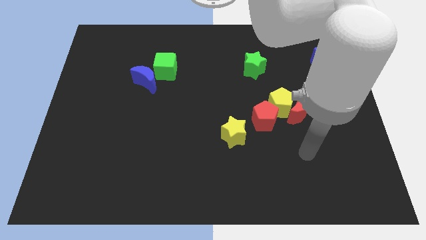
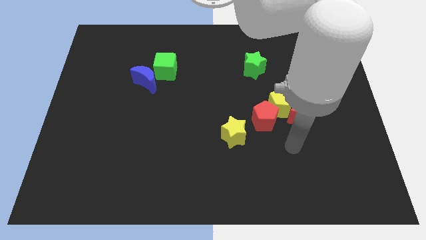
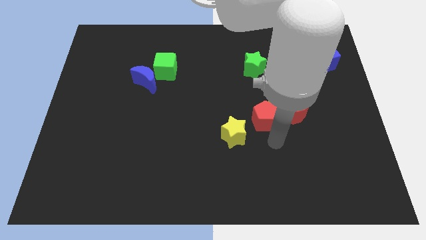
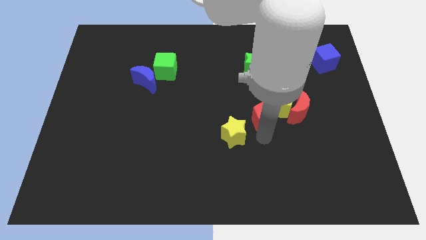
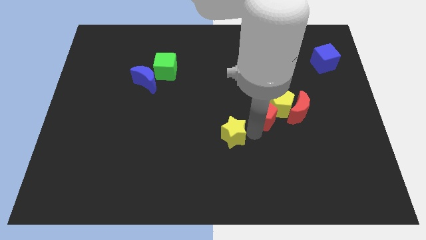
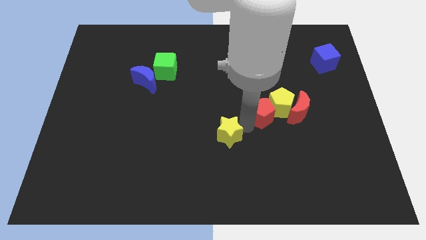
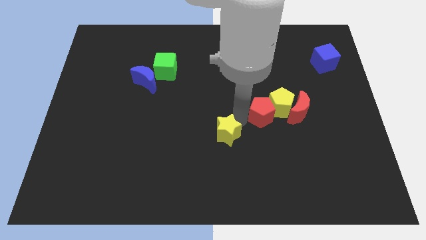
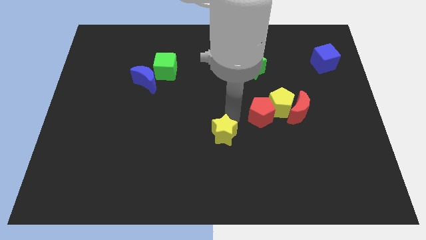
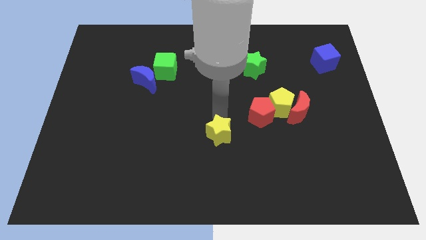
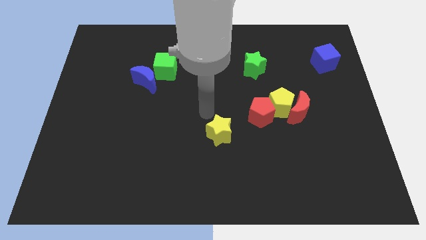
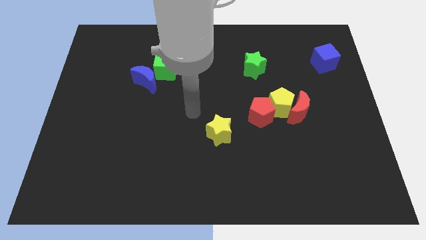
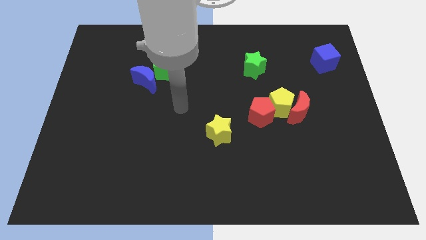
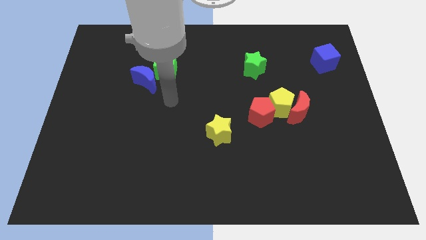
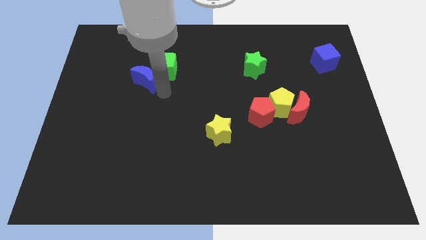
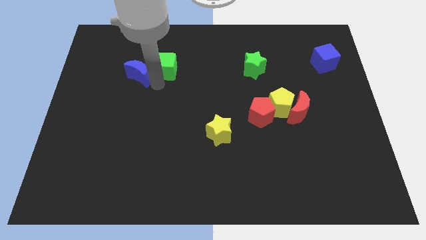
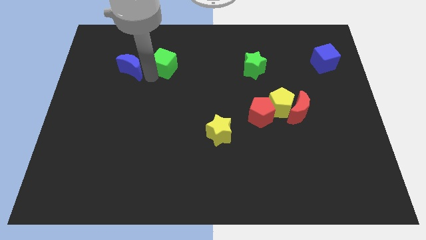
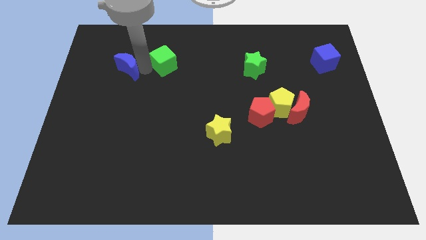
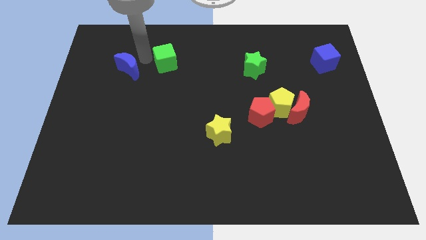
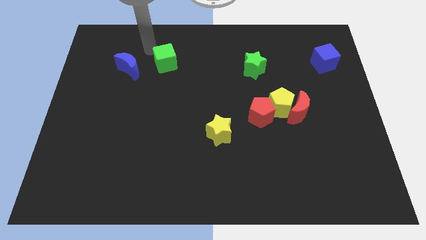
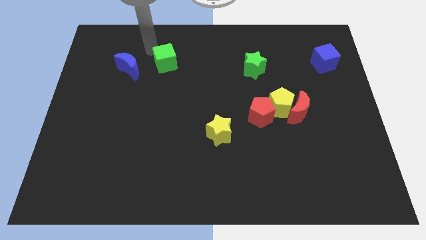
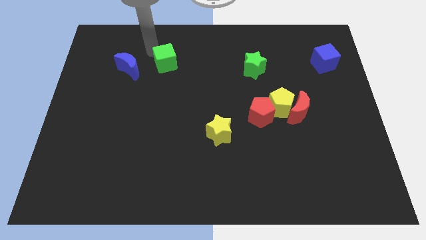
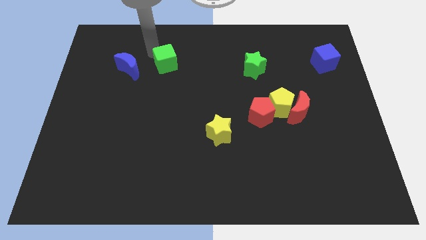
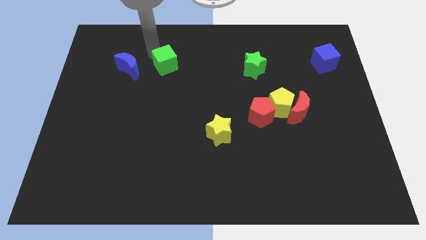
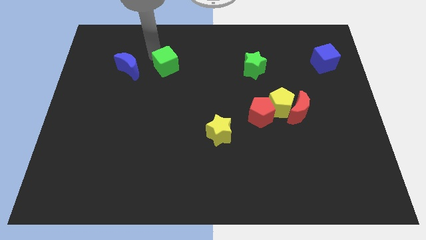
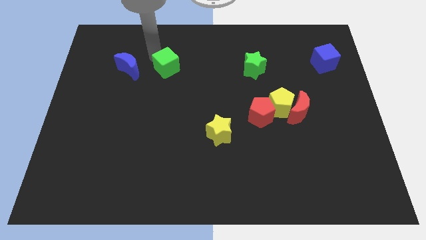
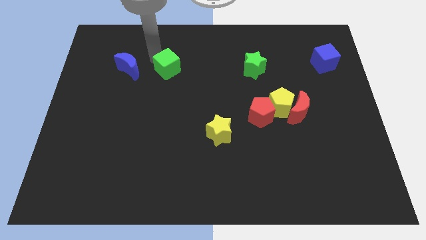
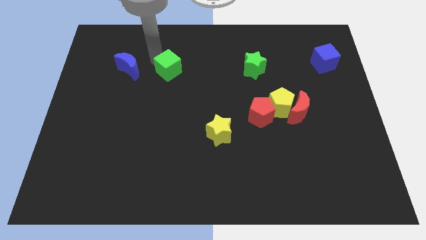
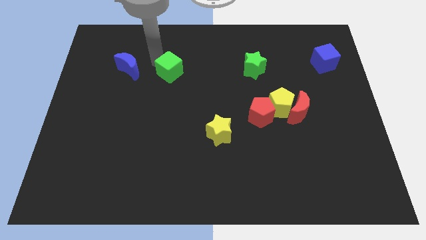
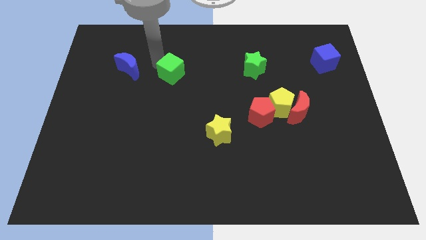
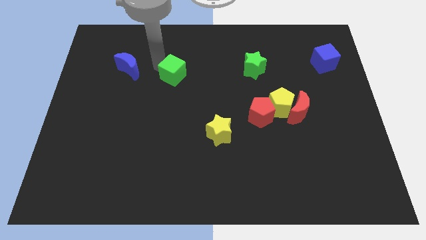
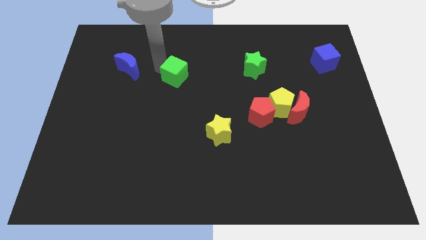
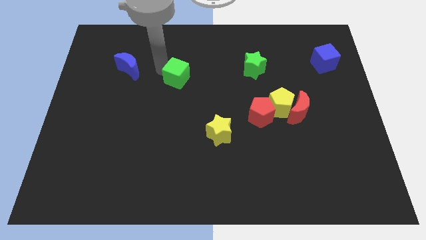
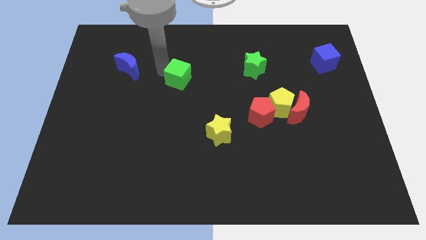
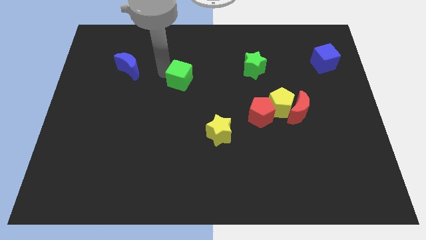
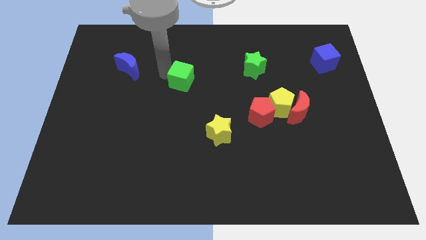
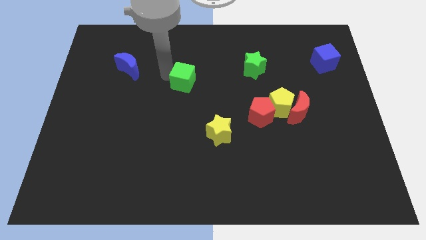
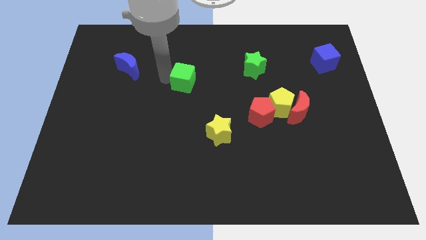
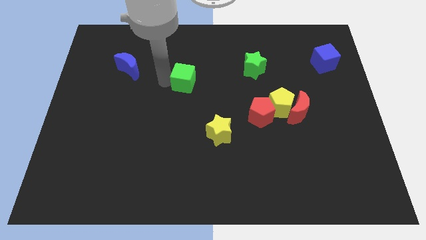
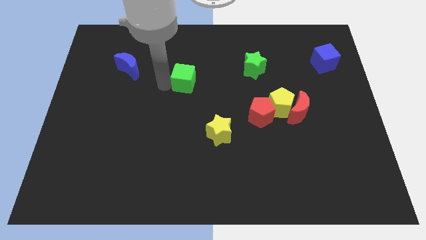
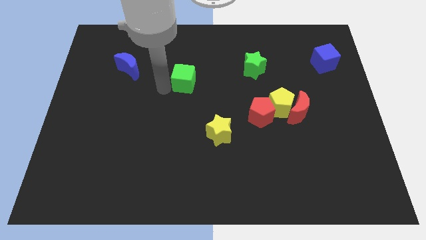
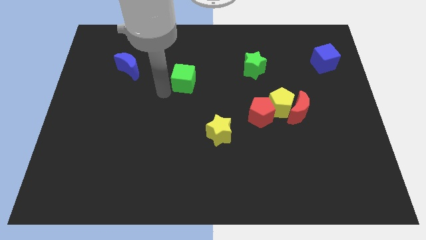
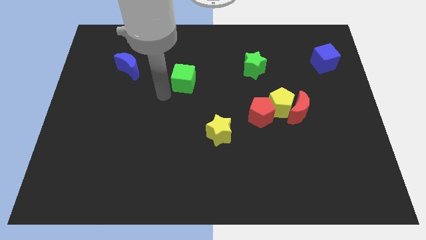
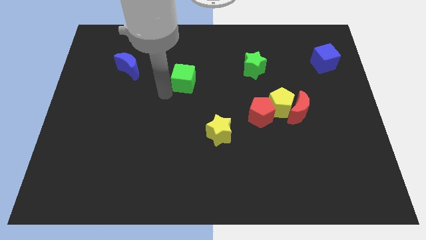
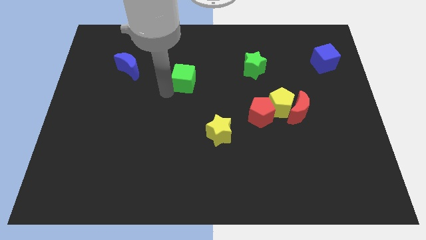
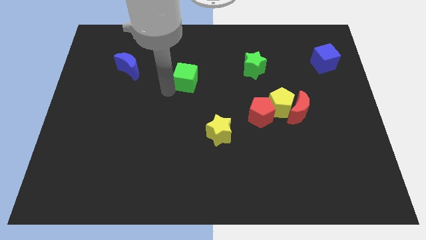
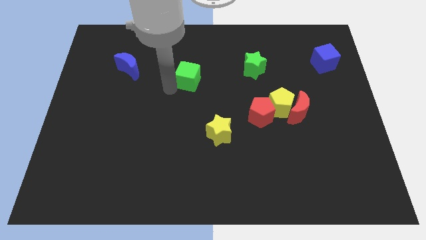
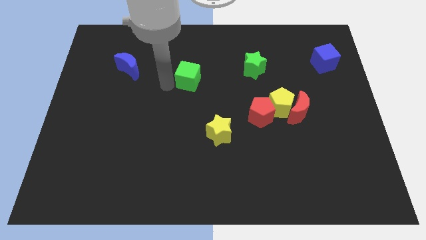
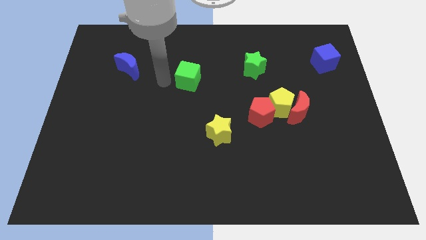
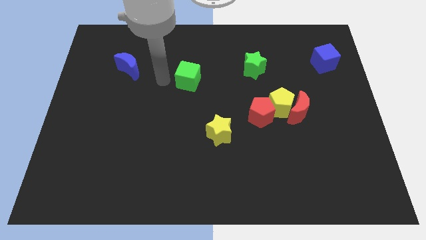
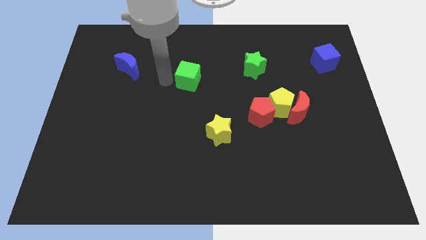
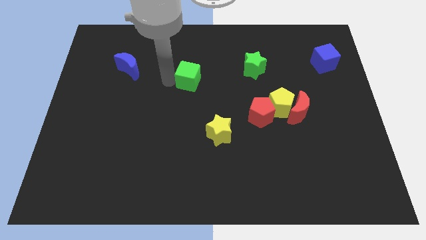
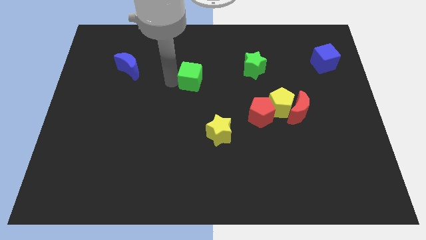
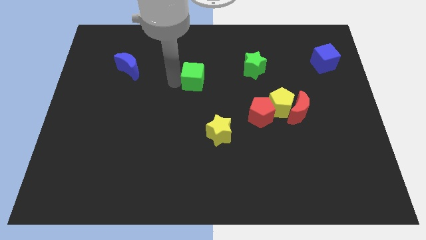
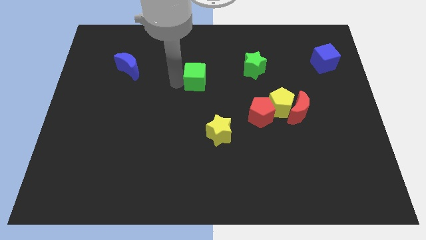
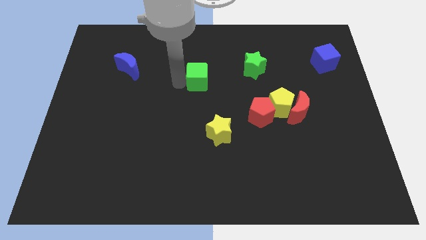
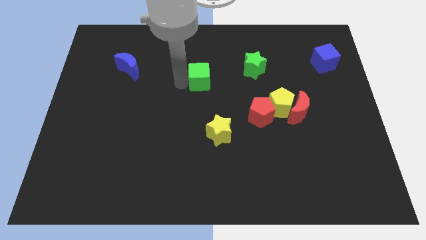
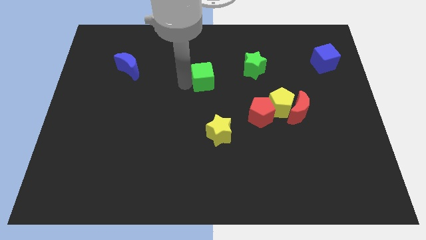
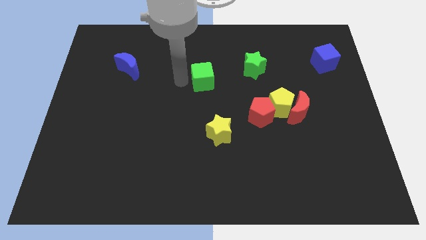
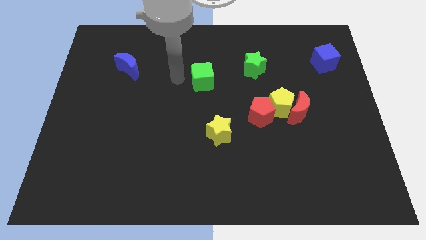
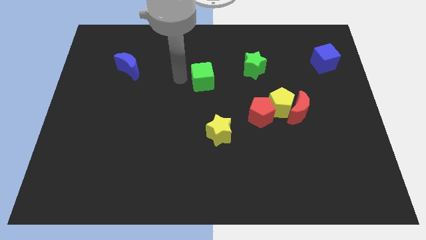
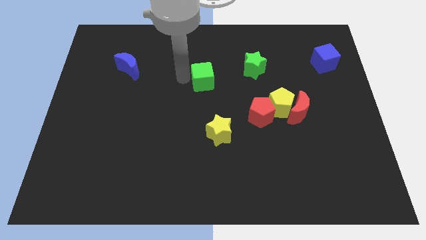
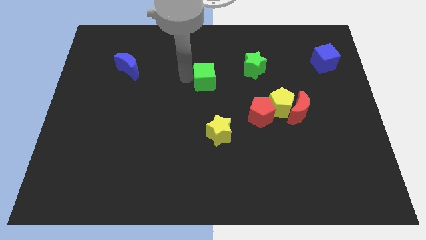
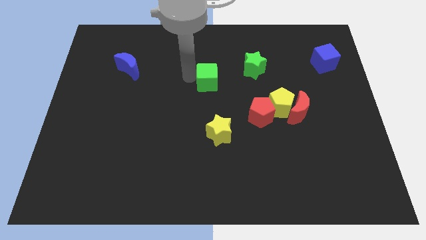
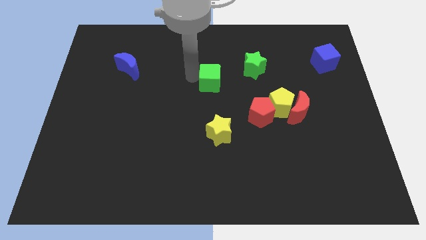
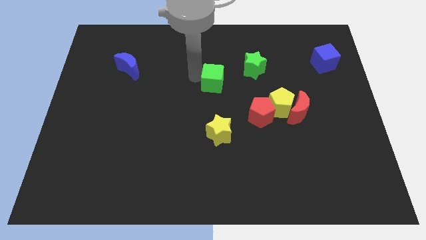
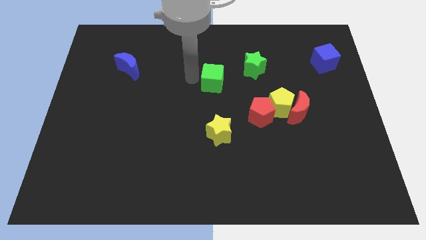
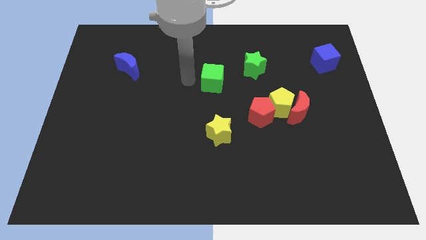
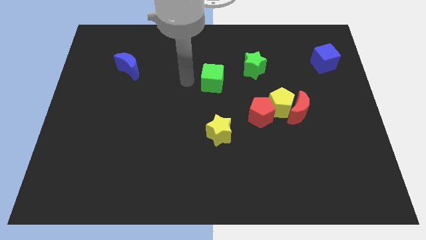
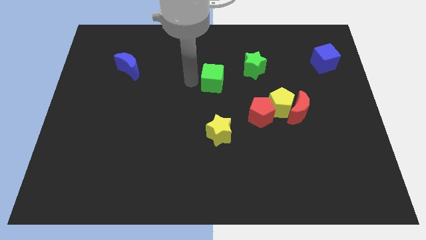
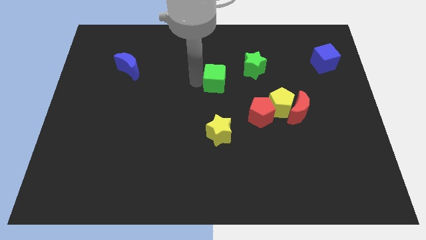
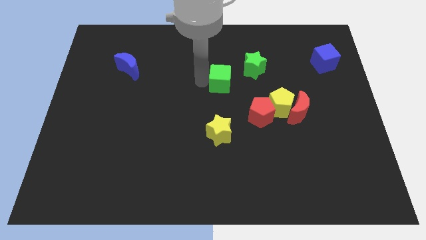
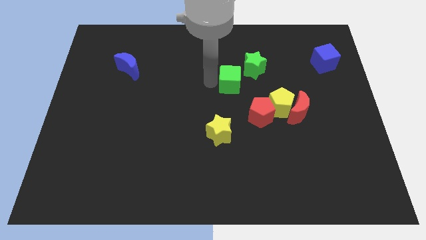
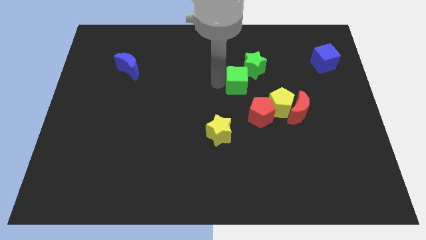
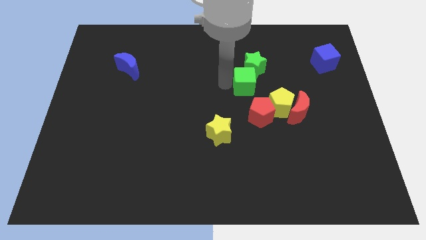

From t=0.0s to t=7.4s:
put the green cube to the top of the red pentagon
